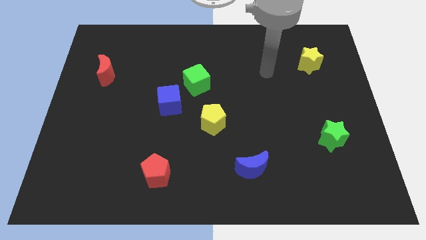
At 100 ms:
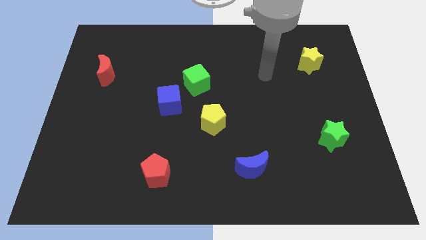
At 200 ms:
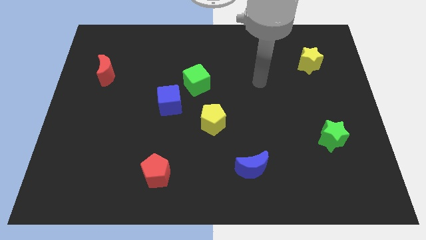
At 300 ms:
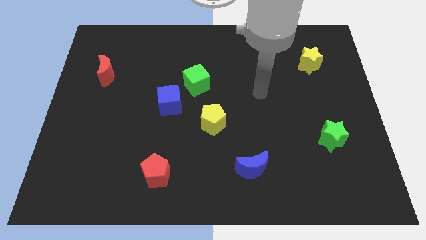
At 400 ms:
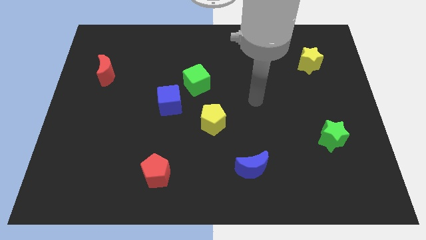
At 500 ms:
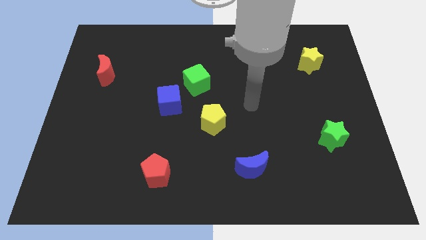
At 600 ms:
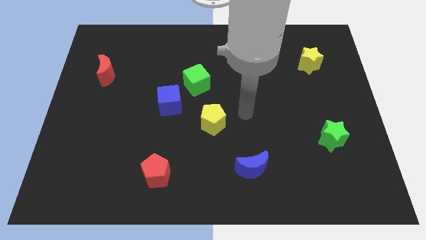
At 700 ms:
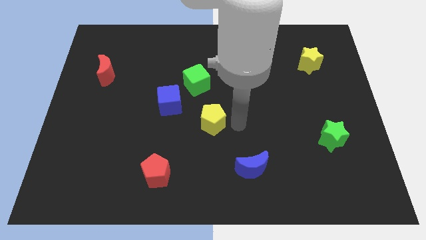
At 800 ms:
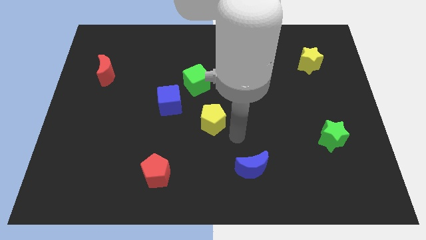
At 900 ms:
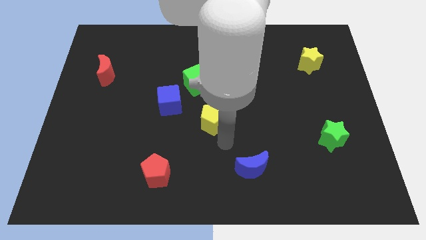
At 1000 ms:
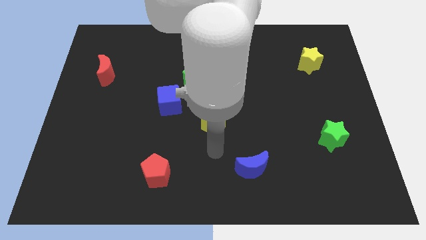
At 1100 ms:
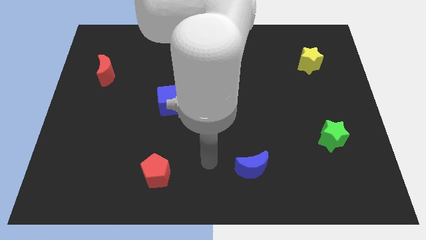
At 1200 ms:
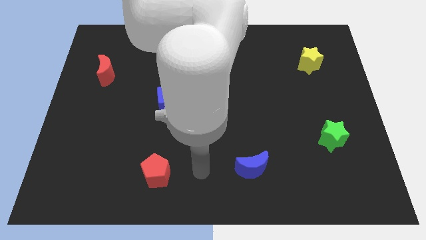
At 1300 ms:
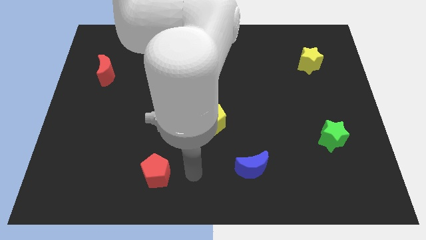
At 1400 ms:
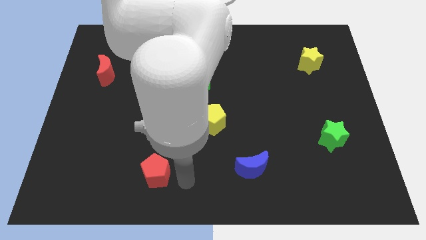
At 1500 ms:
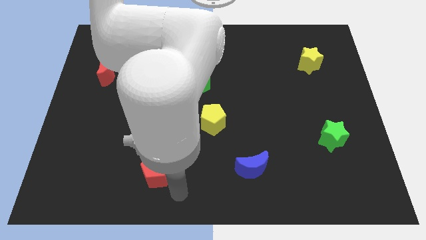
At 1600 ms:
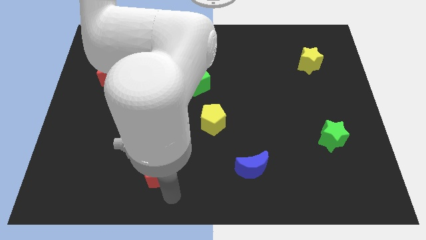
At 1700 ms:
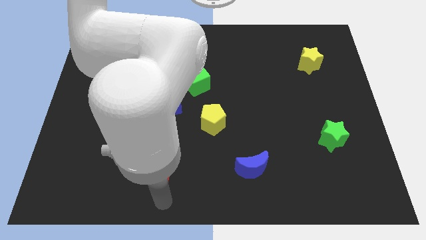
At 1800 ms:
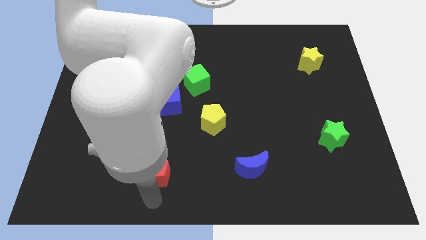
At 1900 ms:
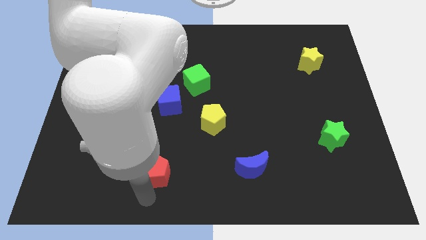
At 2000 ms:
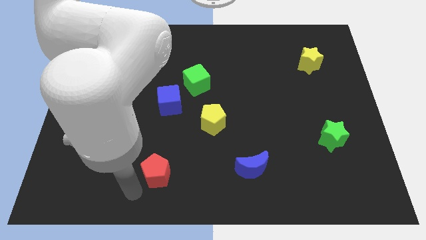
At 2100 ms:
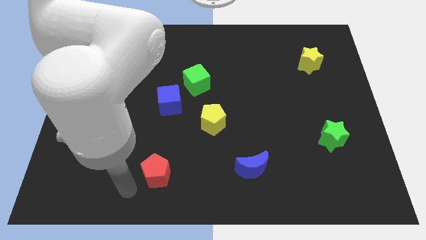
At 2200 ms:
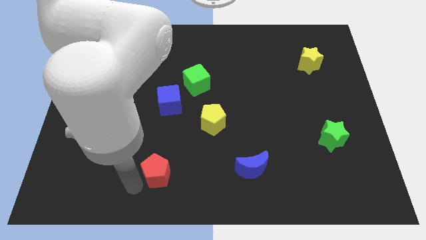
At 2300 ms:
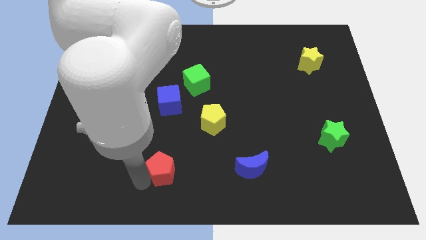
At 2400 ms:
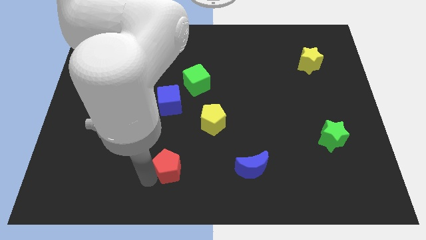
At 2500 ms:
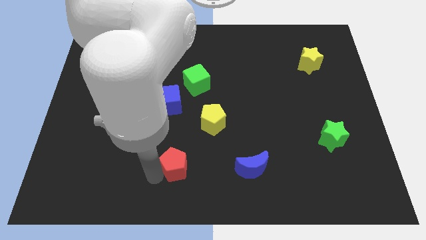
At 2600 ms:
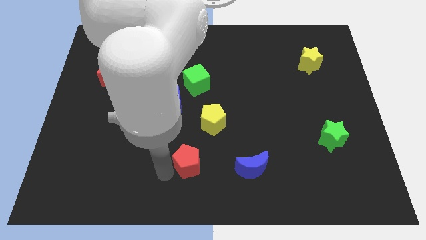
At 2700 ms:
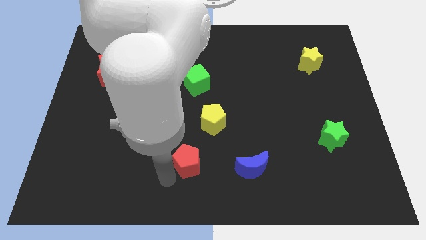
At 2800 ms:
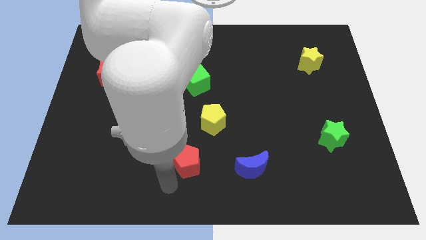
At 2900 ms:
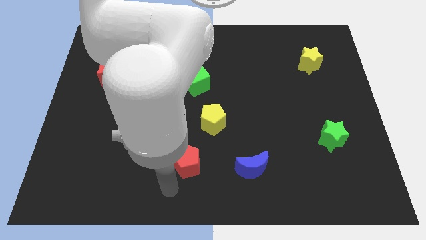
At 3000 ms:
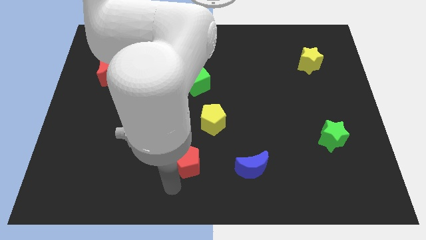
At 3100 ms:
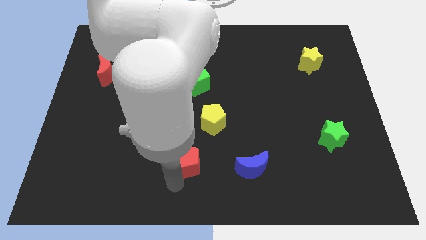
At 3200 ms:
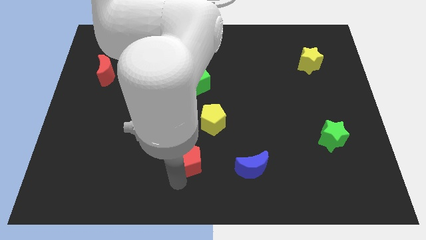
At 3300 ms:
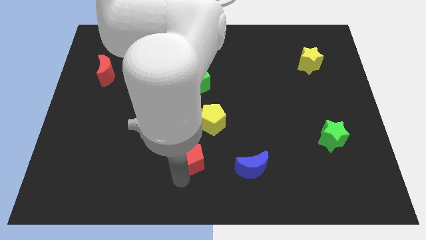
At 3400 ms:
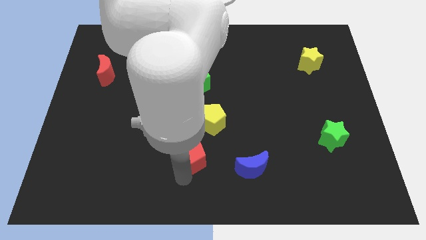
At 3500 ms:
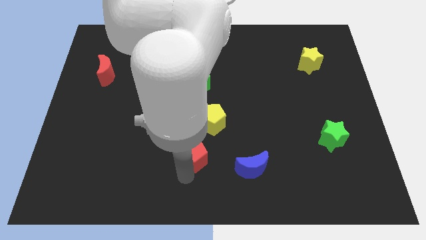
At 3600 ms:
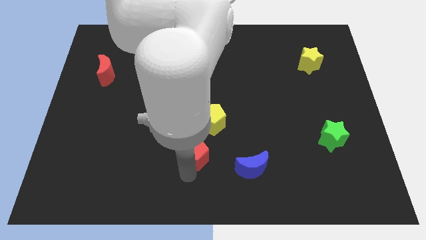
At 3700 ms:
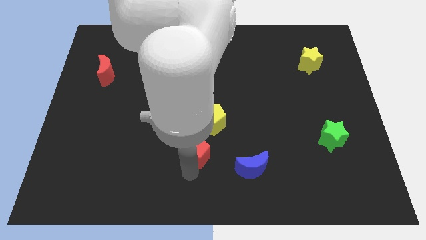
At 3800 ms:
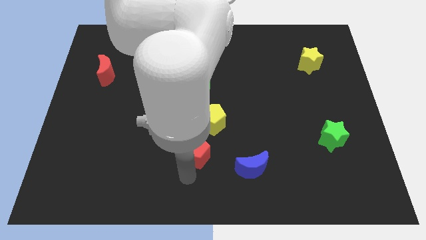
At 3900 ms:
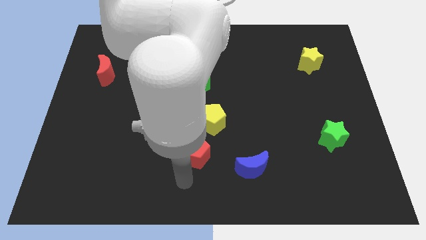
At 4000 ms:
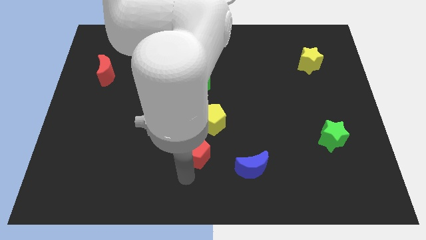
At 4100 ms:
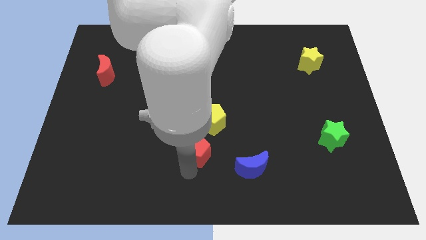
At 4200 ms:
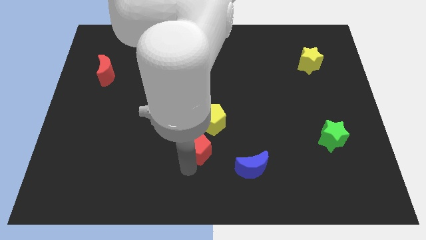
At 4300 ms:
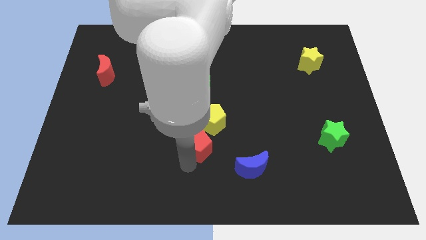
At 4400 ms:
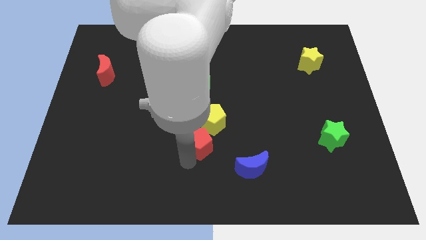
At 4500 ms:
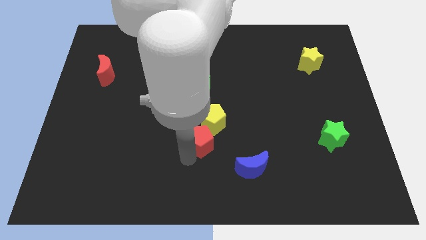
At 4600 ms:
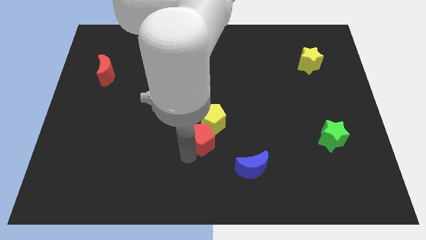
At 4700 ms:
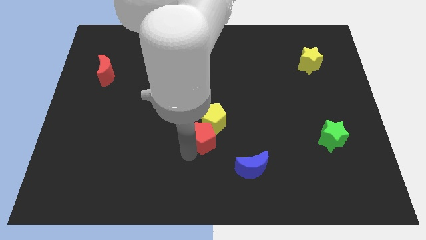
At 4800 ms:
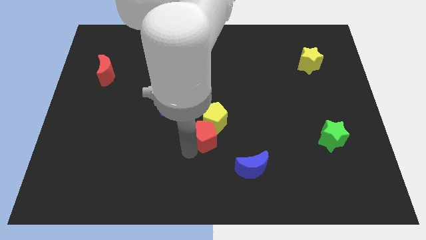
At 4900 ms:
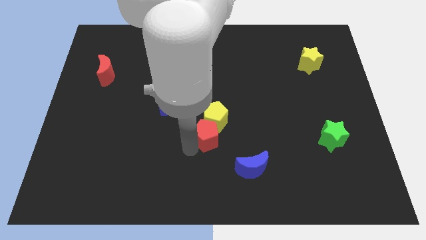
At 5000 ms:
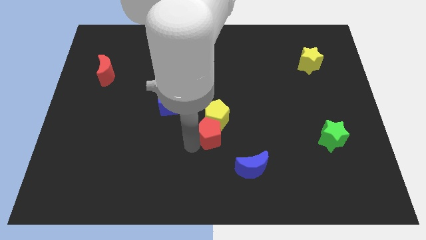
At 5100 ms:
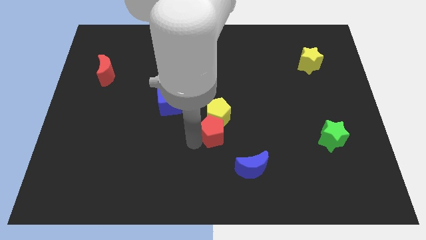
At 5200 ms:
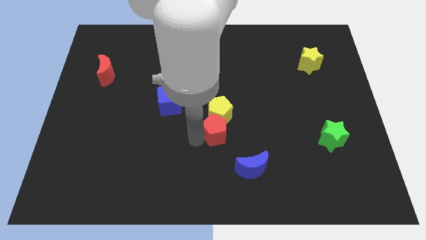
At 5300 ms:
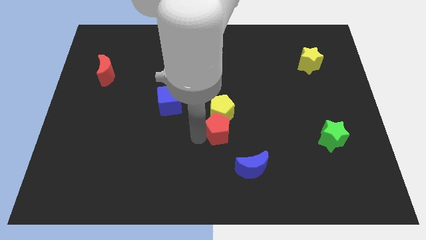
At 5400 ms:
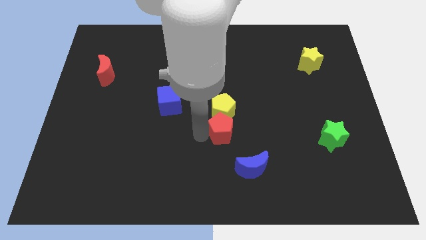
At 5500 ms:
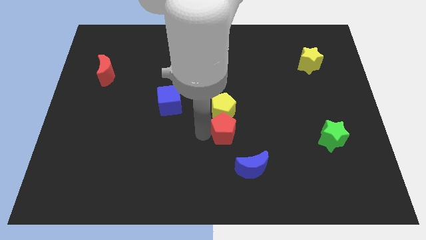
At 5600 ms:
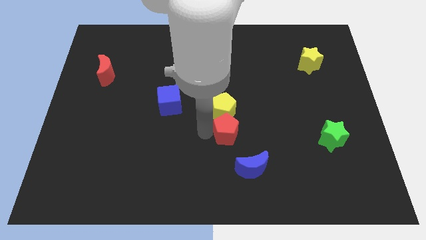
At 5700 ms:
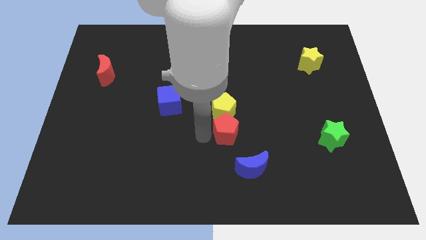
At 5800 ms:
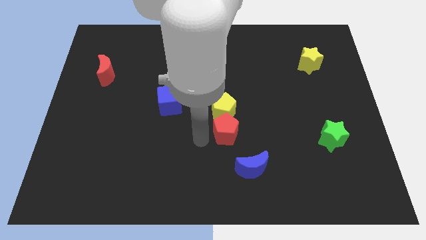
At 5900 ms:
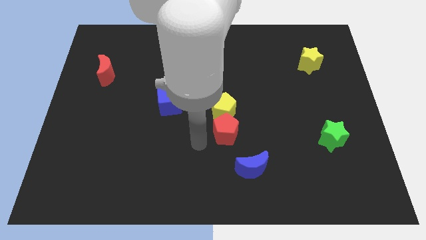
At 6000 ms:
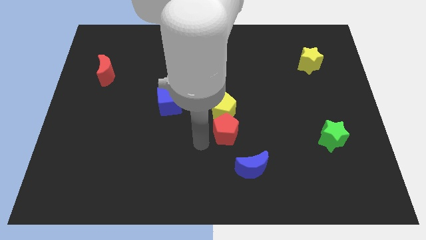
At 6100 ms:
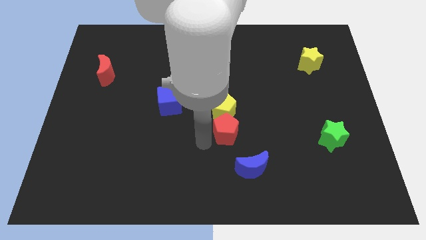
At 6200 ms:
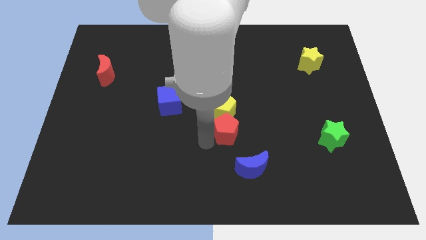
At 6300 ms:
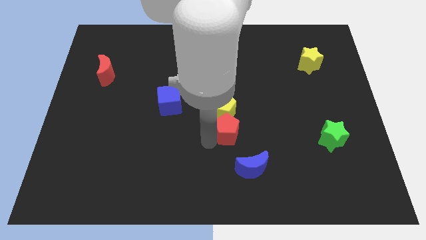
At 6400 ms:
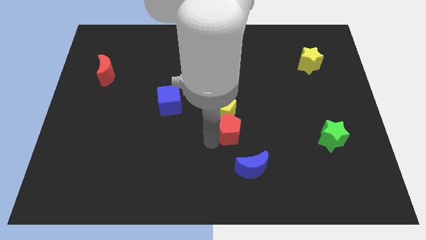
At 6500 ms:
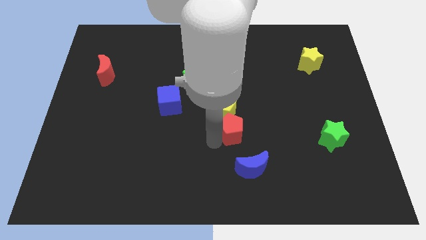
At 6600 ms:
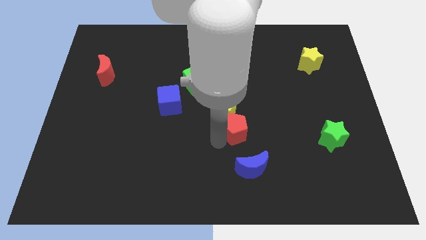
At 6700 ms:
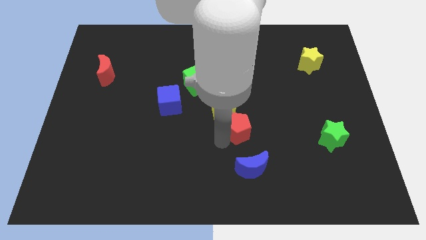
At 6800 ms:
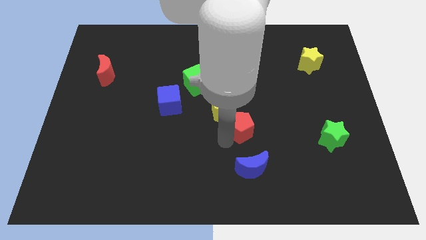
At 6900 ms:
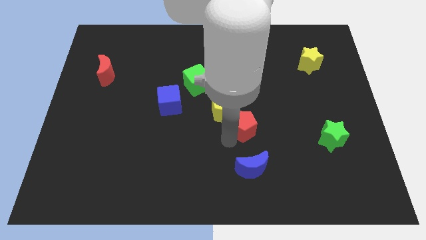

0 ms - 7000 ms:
move the red pentagon upwards and then to the right

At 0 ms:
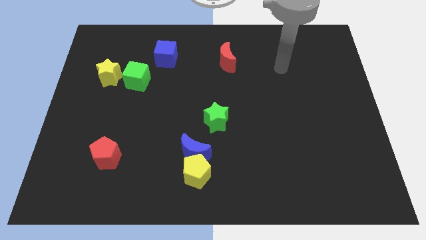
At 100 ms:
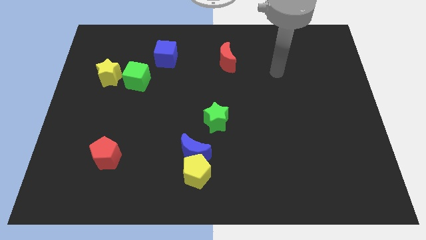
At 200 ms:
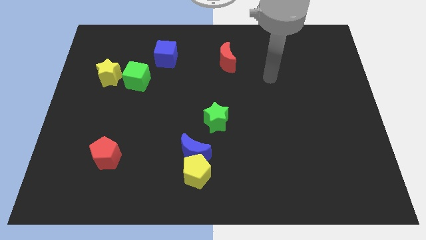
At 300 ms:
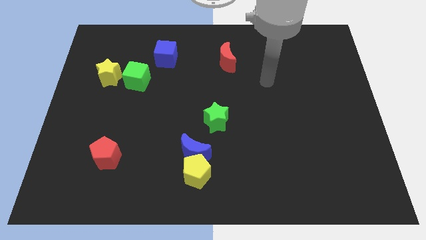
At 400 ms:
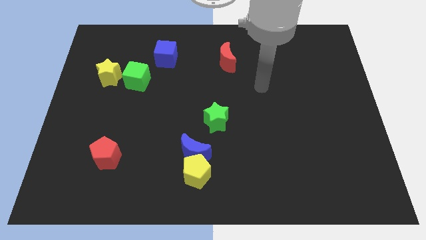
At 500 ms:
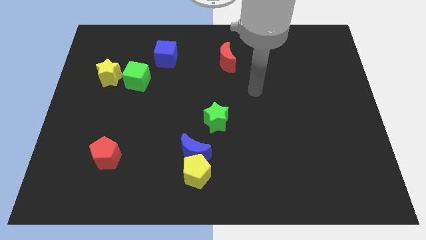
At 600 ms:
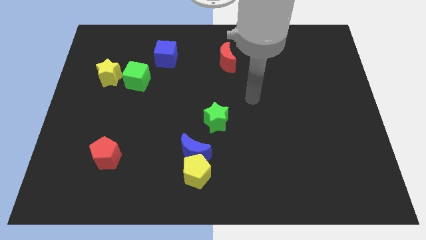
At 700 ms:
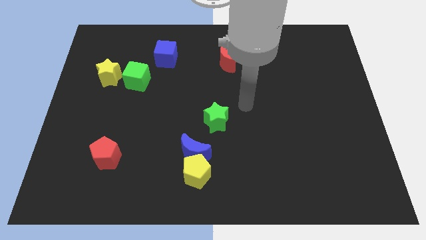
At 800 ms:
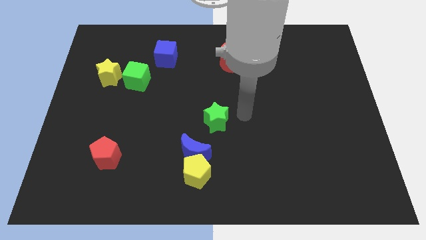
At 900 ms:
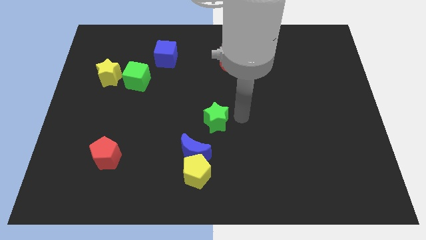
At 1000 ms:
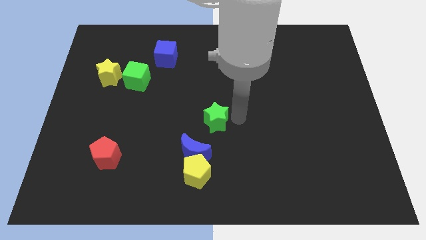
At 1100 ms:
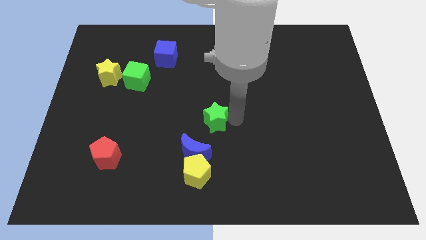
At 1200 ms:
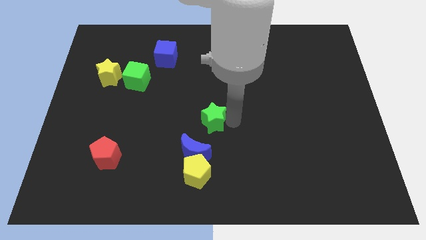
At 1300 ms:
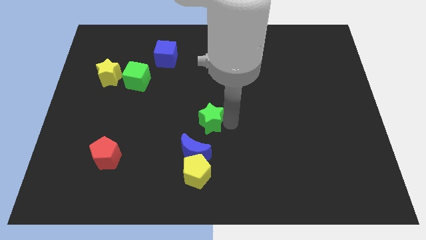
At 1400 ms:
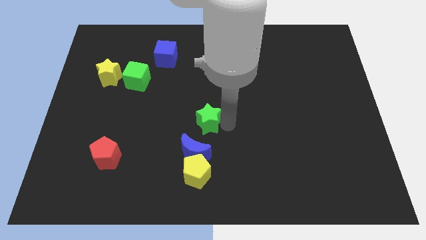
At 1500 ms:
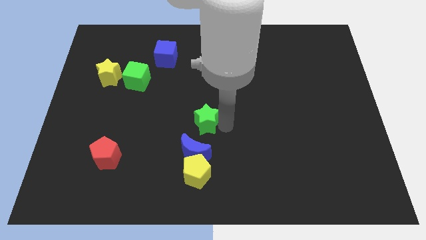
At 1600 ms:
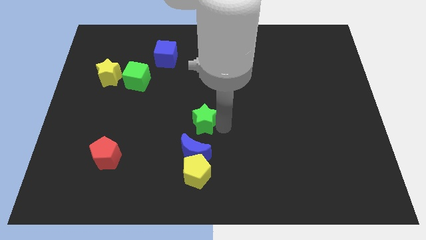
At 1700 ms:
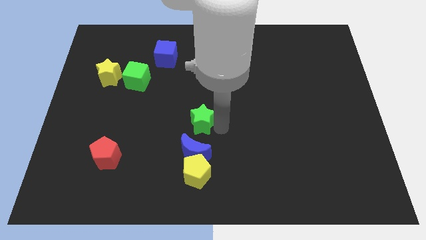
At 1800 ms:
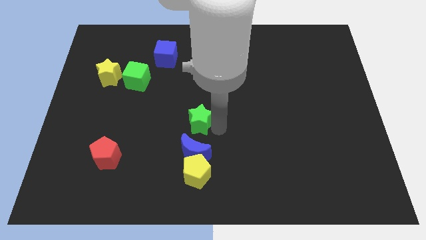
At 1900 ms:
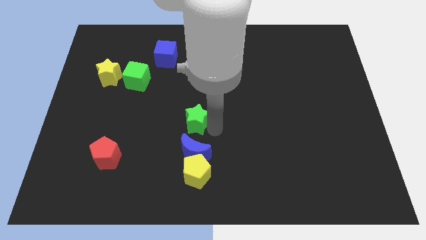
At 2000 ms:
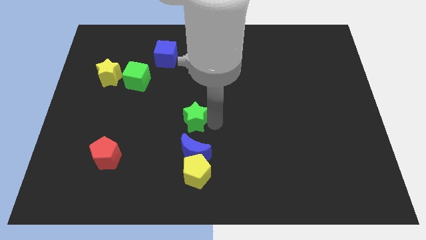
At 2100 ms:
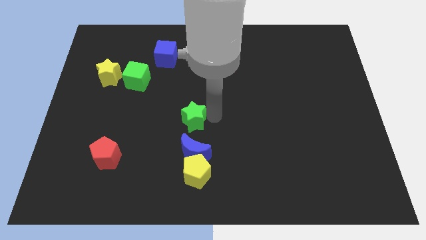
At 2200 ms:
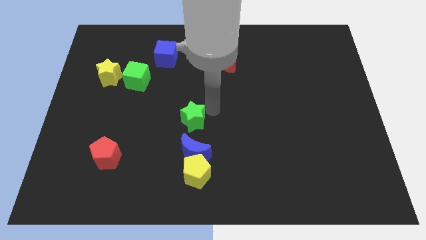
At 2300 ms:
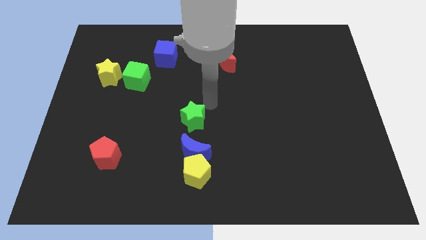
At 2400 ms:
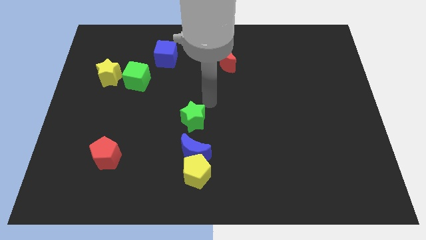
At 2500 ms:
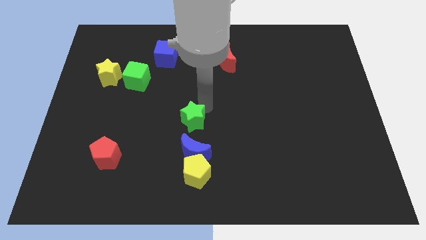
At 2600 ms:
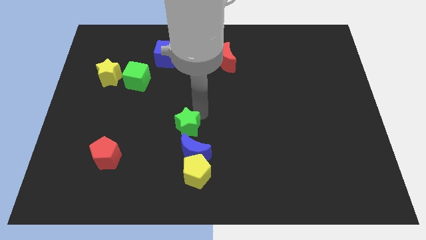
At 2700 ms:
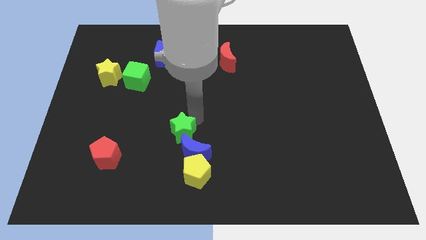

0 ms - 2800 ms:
slide the green star a little diagonally downwards and left
